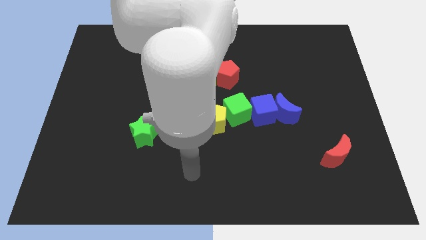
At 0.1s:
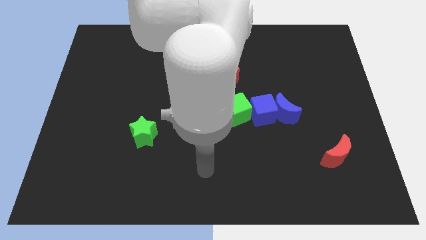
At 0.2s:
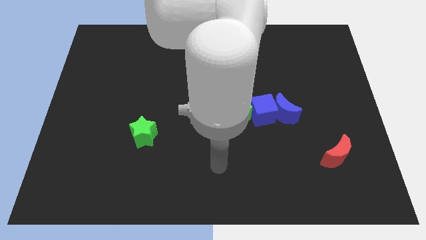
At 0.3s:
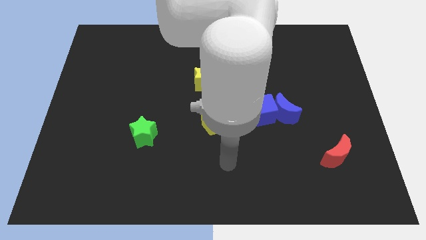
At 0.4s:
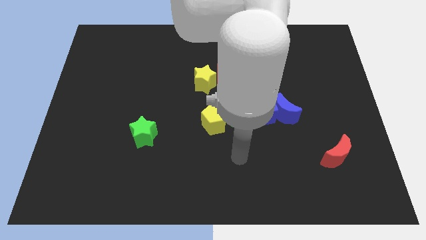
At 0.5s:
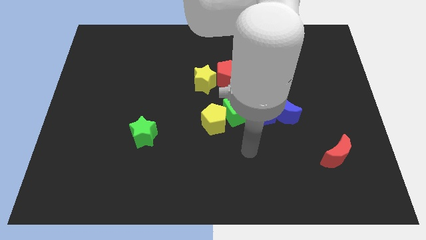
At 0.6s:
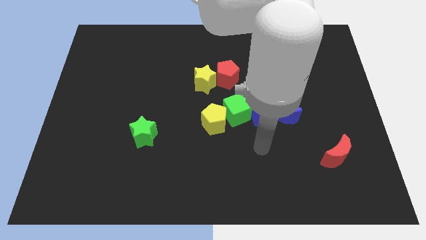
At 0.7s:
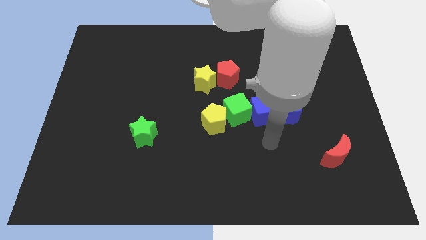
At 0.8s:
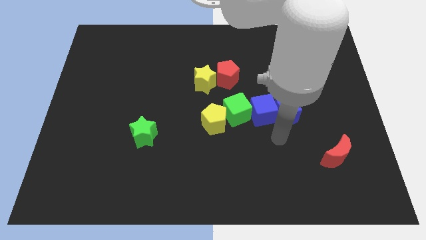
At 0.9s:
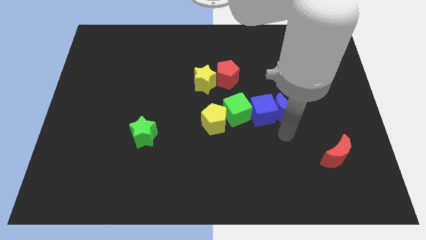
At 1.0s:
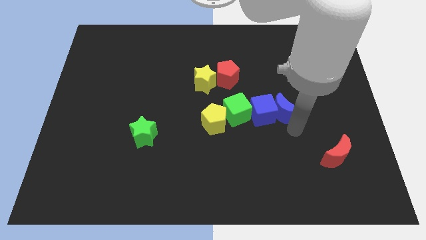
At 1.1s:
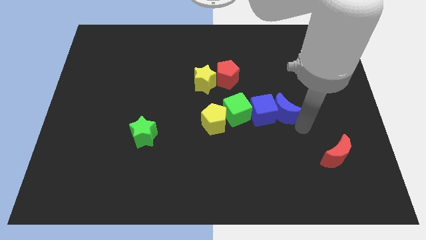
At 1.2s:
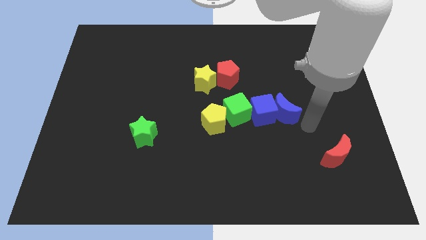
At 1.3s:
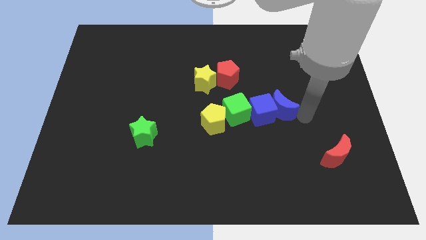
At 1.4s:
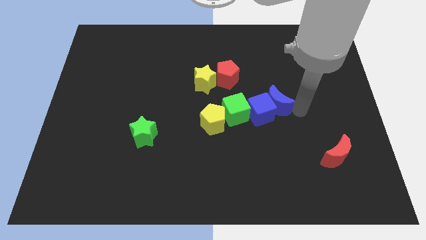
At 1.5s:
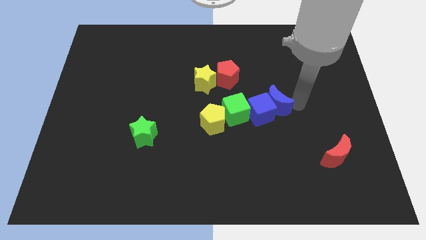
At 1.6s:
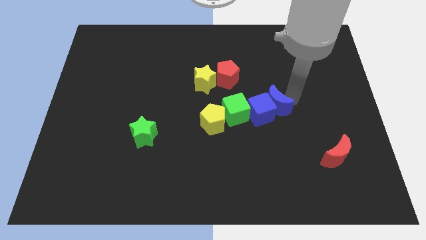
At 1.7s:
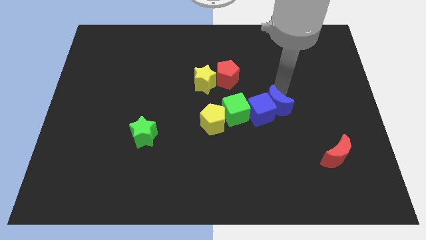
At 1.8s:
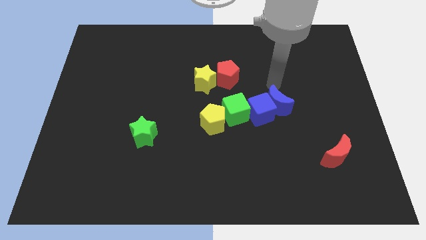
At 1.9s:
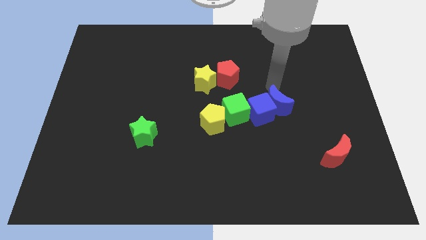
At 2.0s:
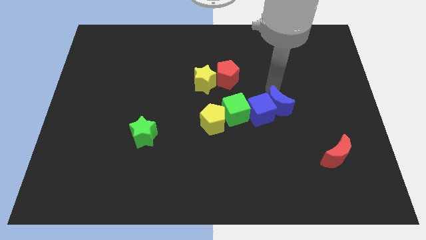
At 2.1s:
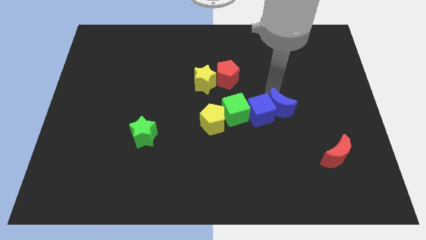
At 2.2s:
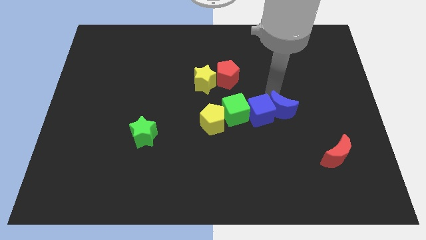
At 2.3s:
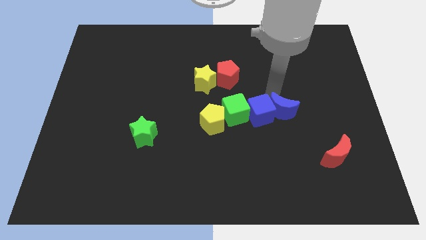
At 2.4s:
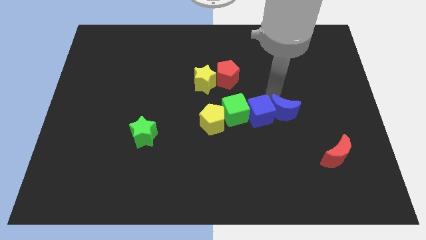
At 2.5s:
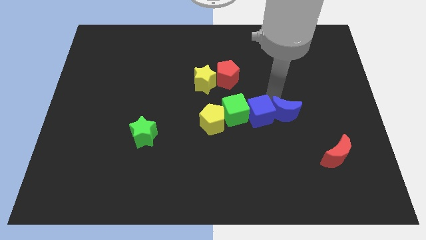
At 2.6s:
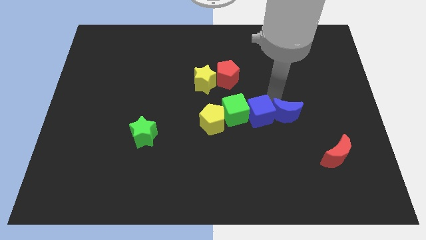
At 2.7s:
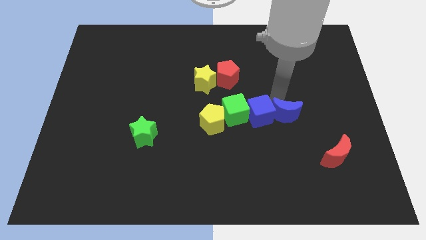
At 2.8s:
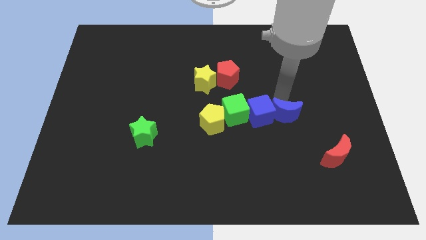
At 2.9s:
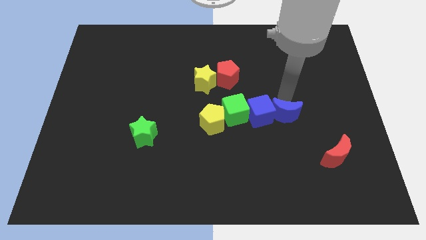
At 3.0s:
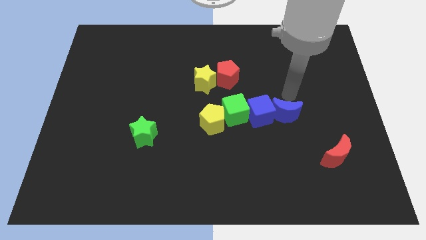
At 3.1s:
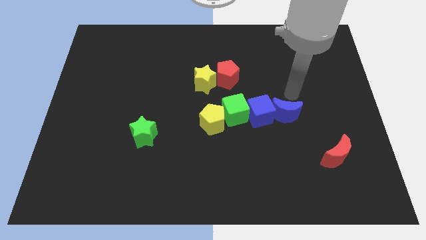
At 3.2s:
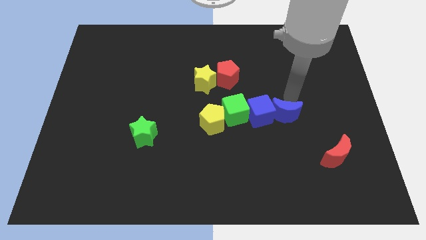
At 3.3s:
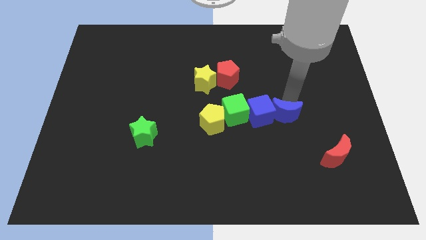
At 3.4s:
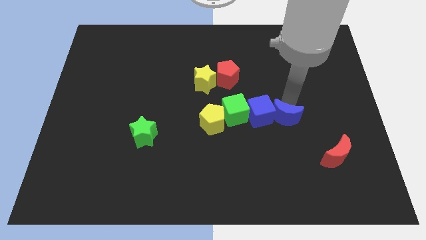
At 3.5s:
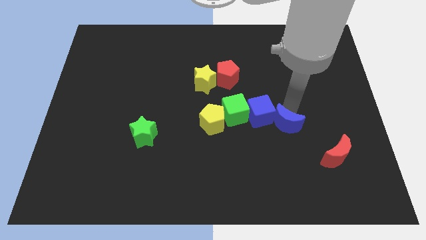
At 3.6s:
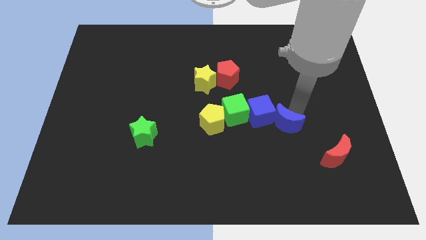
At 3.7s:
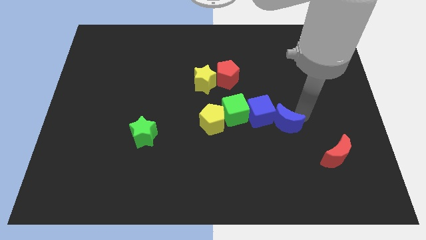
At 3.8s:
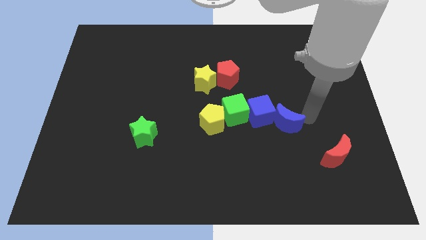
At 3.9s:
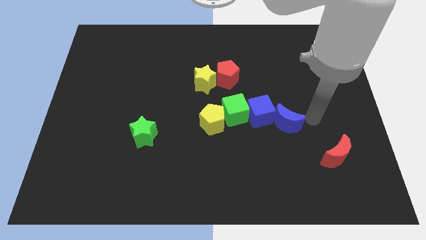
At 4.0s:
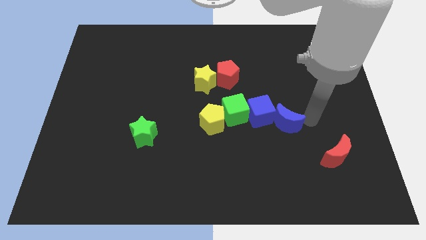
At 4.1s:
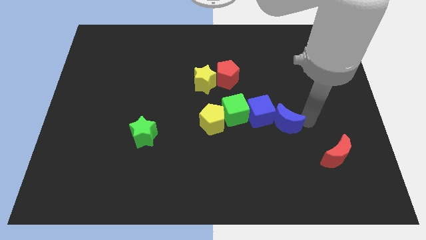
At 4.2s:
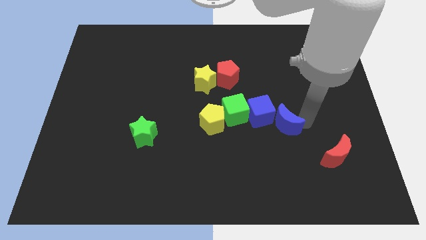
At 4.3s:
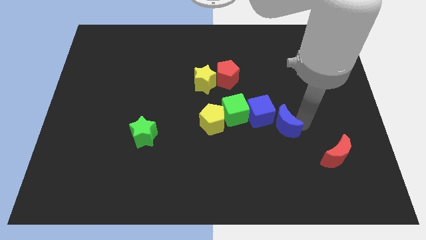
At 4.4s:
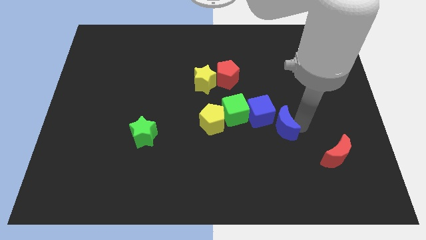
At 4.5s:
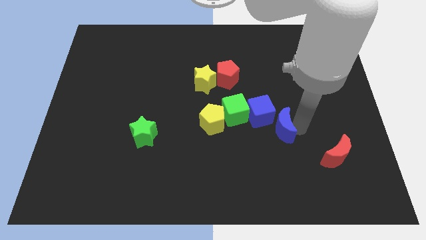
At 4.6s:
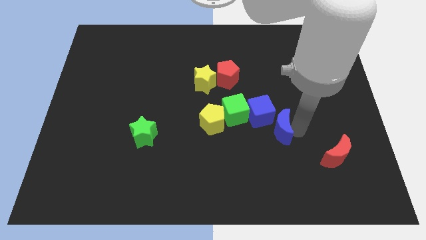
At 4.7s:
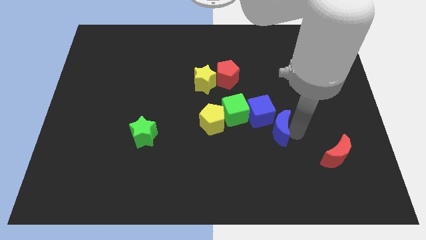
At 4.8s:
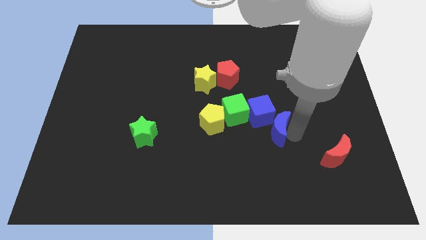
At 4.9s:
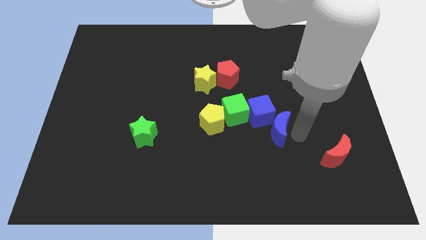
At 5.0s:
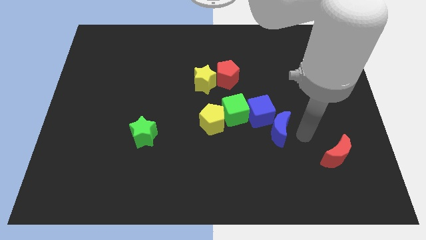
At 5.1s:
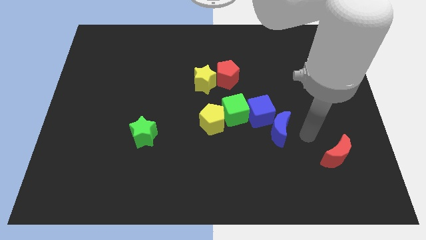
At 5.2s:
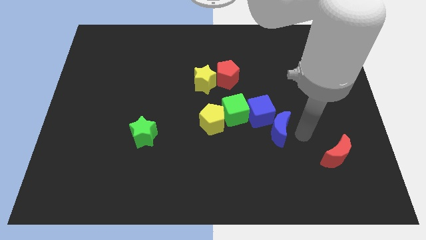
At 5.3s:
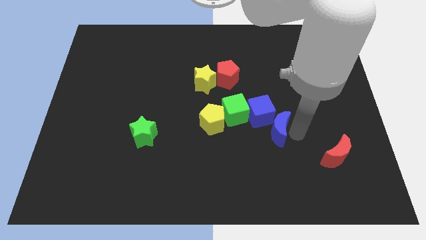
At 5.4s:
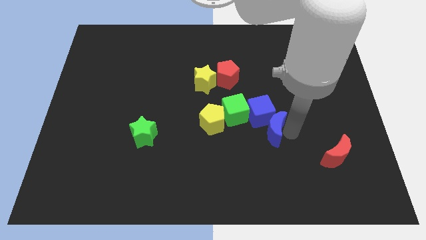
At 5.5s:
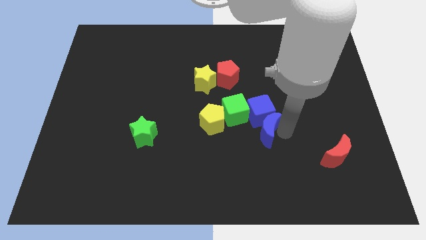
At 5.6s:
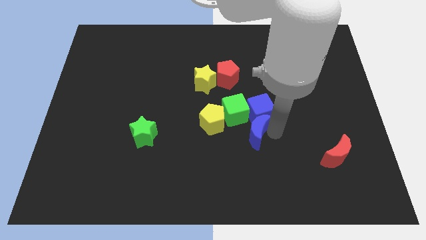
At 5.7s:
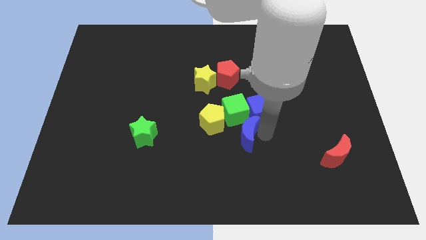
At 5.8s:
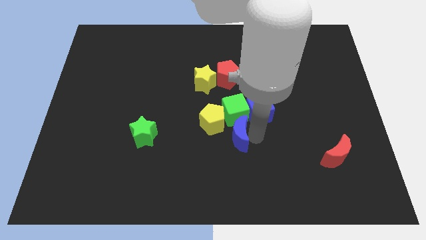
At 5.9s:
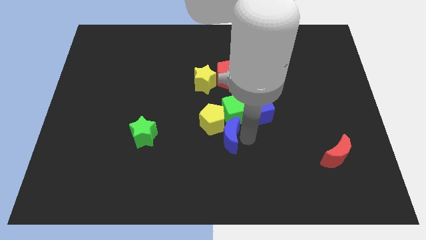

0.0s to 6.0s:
slide the blue moon next to the yellow pentagon

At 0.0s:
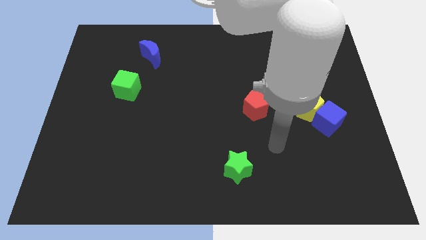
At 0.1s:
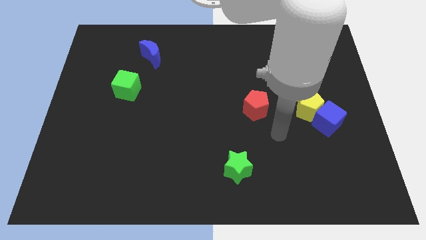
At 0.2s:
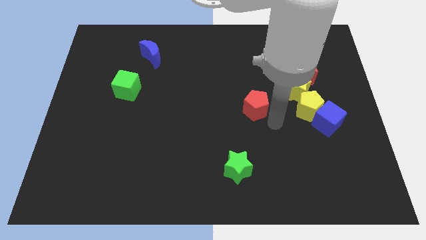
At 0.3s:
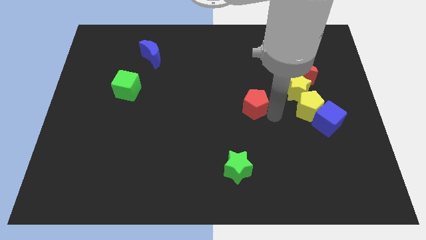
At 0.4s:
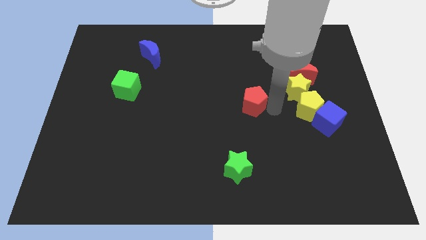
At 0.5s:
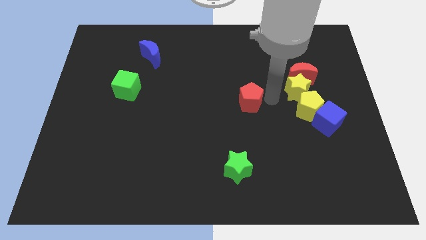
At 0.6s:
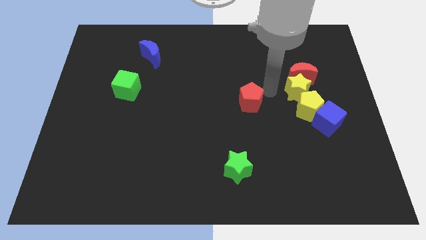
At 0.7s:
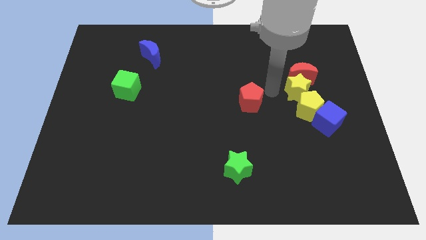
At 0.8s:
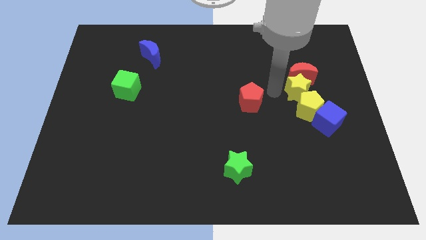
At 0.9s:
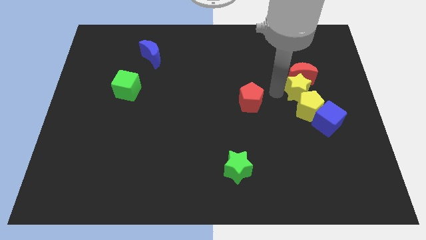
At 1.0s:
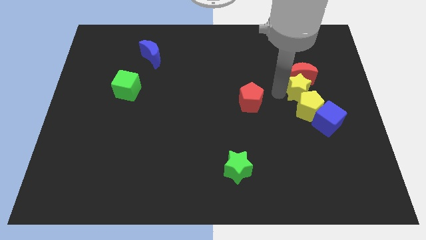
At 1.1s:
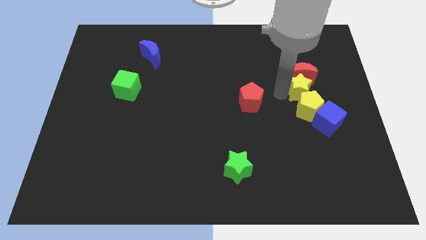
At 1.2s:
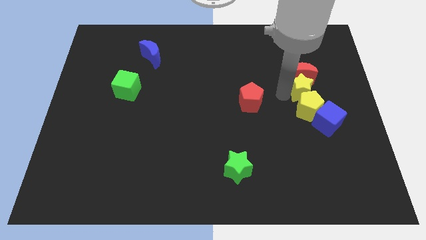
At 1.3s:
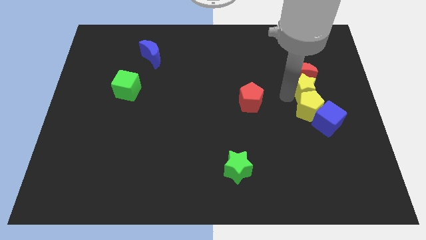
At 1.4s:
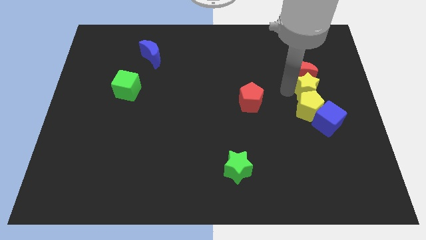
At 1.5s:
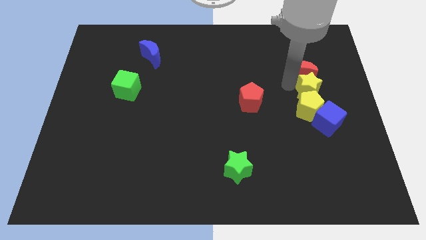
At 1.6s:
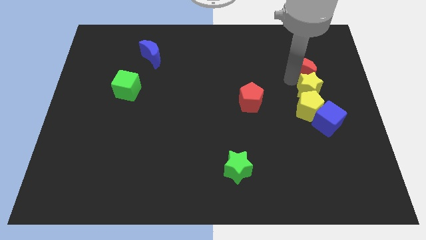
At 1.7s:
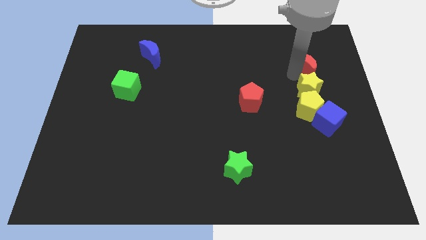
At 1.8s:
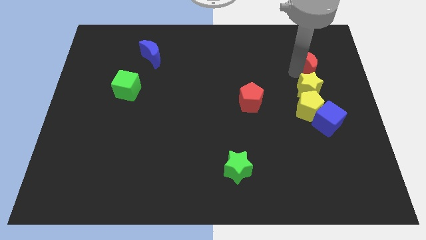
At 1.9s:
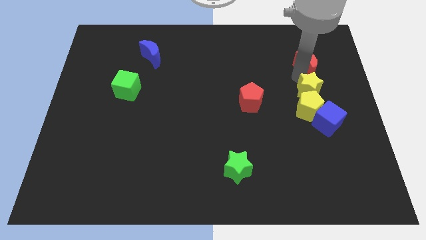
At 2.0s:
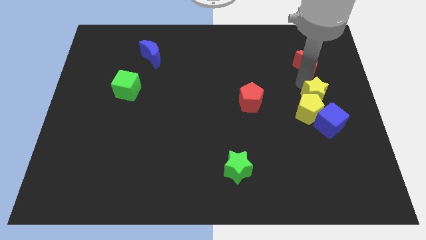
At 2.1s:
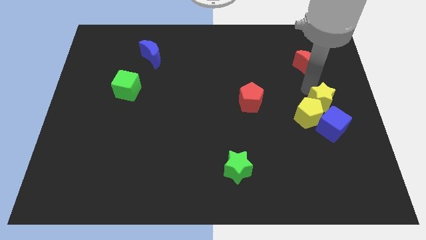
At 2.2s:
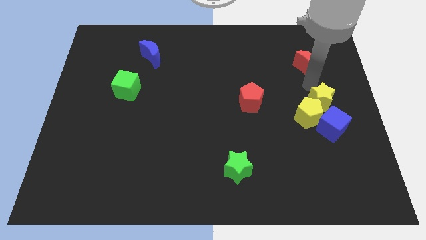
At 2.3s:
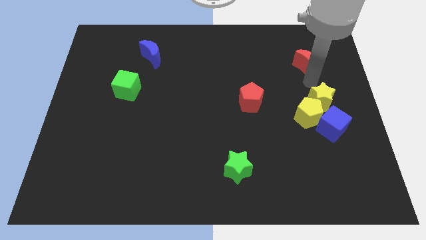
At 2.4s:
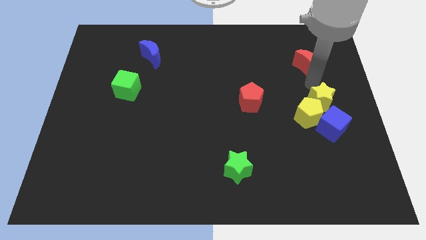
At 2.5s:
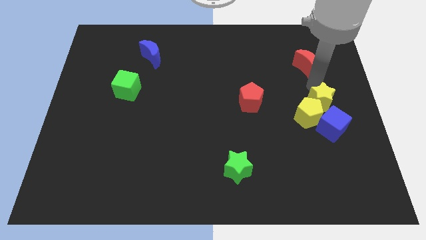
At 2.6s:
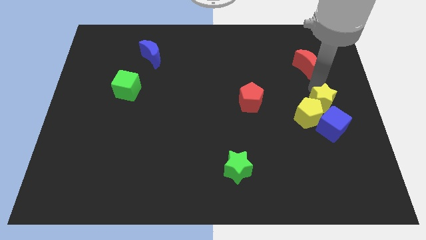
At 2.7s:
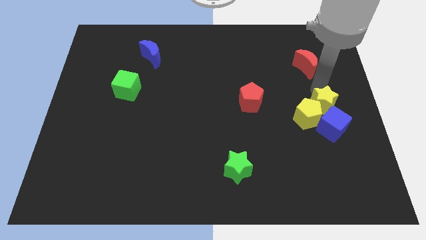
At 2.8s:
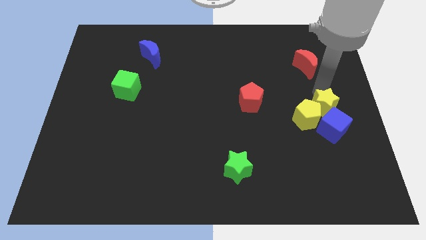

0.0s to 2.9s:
put the yellow star to the blue cube
